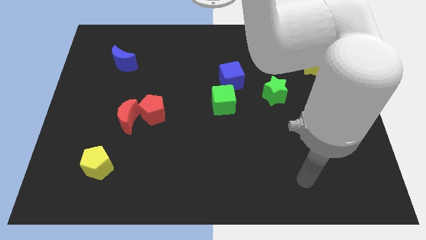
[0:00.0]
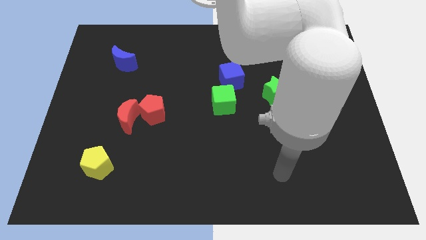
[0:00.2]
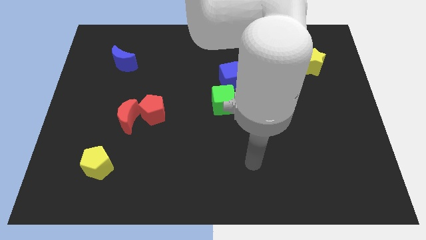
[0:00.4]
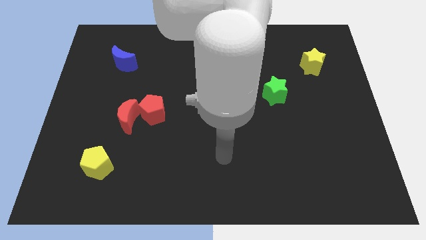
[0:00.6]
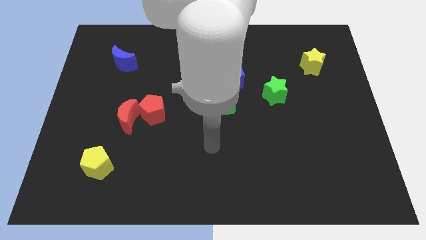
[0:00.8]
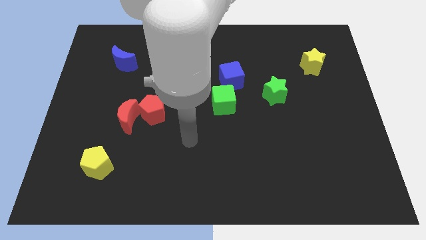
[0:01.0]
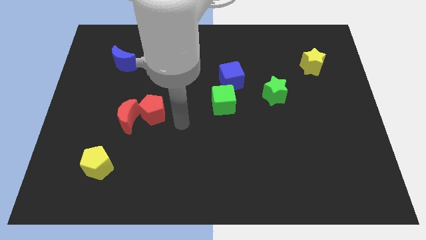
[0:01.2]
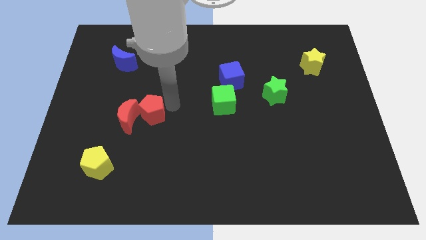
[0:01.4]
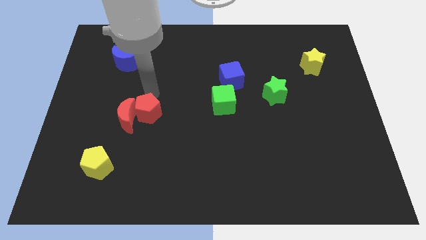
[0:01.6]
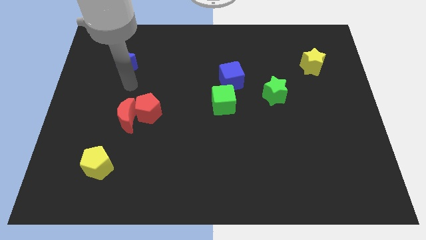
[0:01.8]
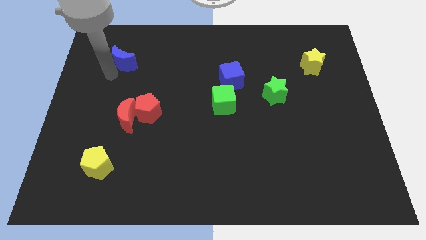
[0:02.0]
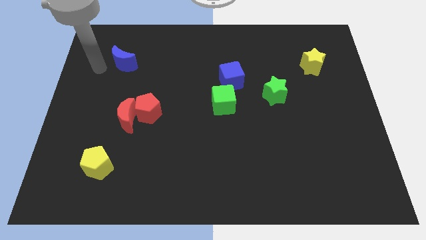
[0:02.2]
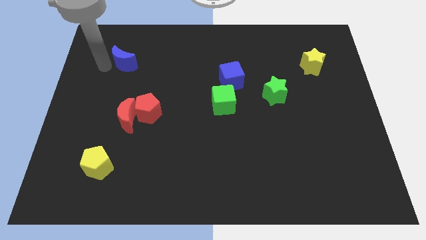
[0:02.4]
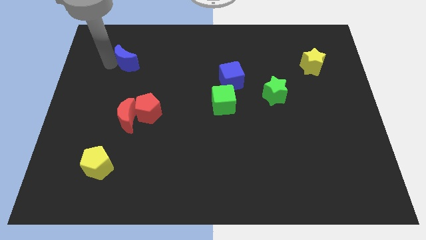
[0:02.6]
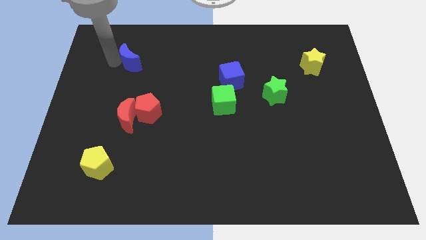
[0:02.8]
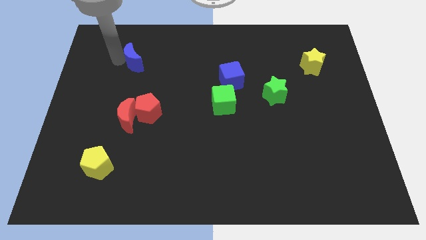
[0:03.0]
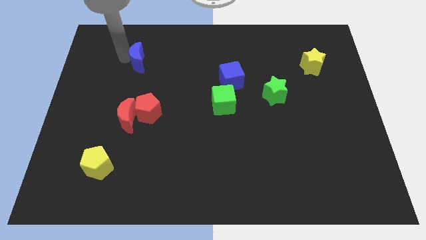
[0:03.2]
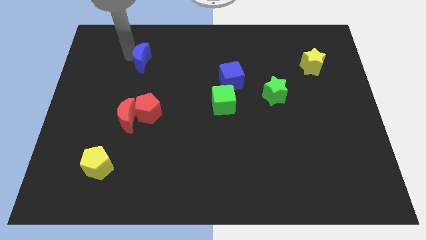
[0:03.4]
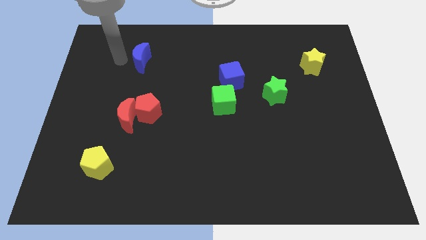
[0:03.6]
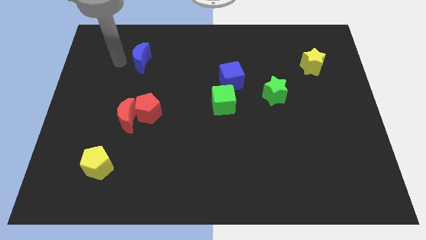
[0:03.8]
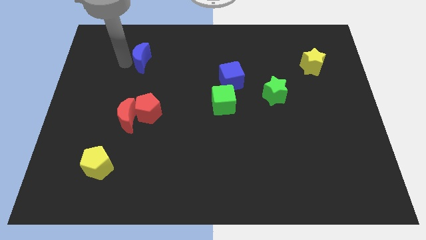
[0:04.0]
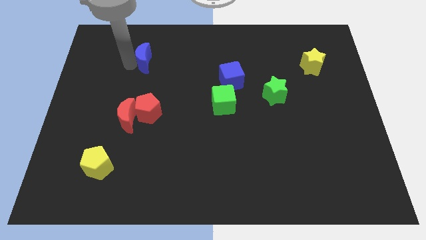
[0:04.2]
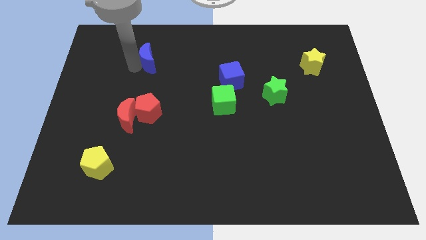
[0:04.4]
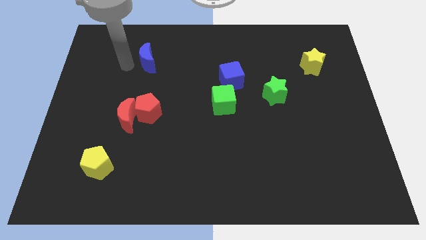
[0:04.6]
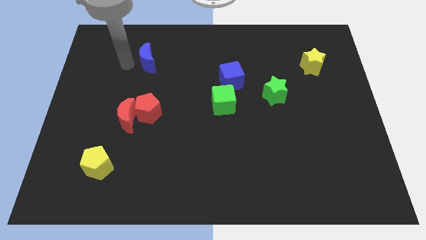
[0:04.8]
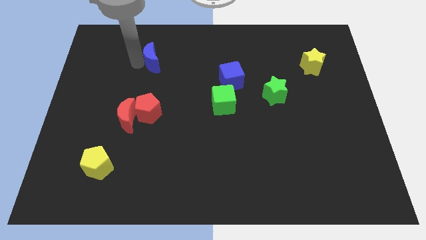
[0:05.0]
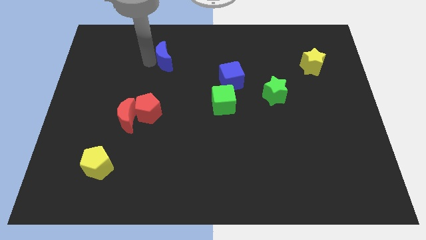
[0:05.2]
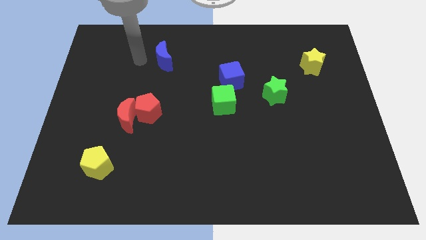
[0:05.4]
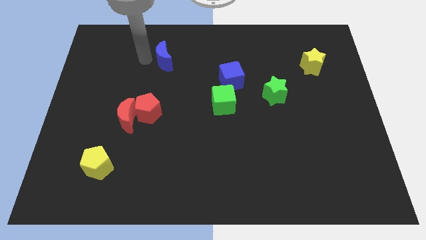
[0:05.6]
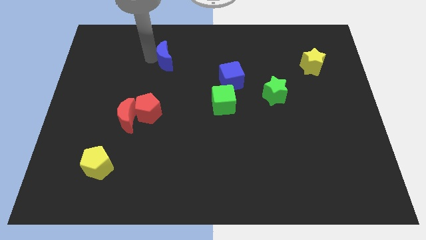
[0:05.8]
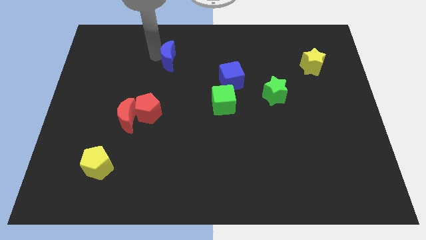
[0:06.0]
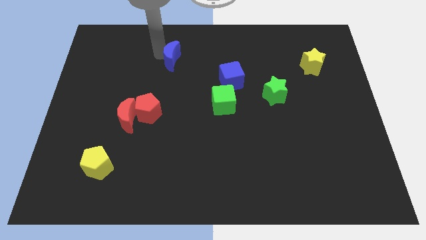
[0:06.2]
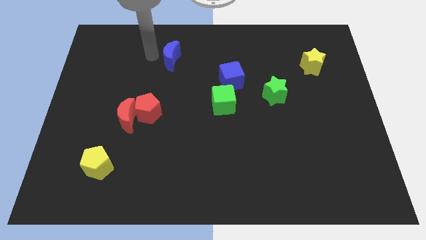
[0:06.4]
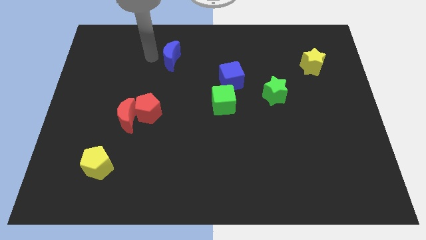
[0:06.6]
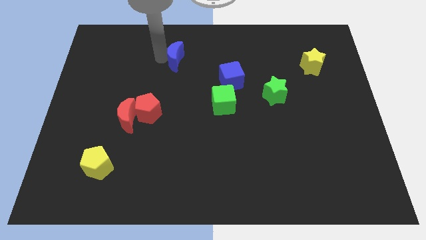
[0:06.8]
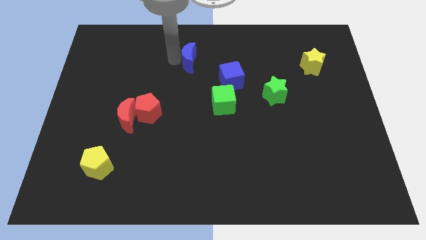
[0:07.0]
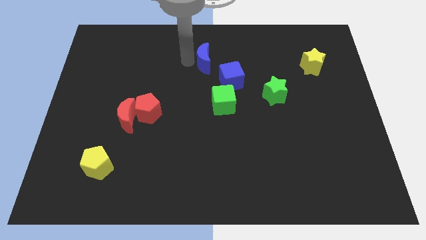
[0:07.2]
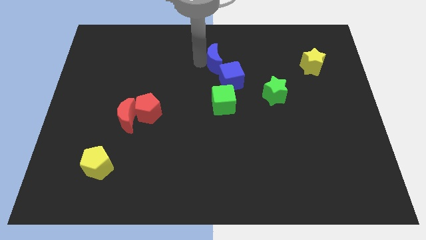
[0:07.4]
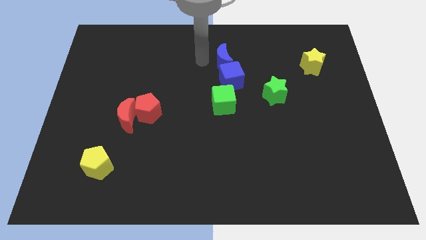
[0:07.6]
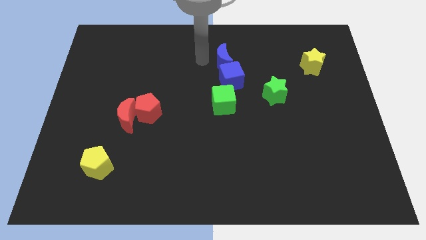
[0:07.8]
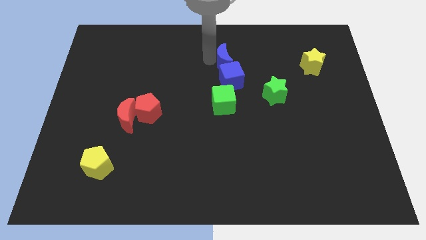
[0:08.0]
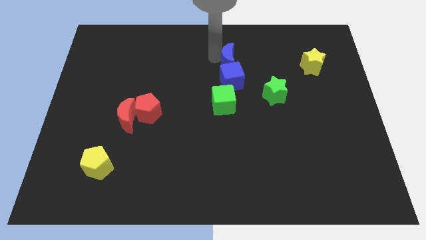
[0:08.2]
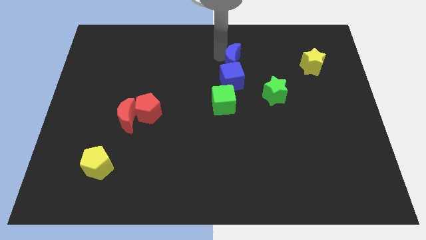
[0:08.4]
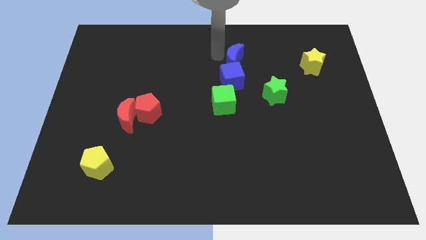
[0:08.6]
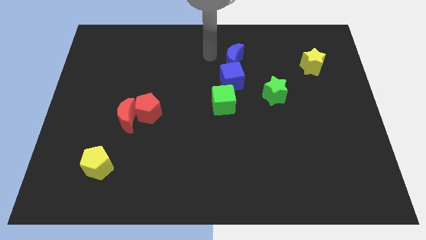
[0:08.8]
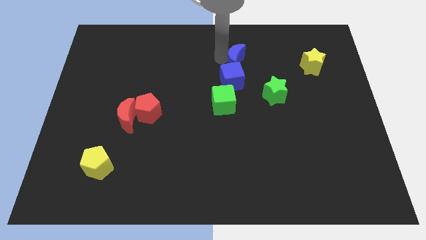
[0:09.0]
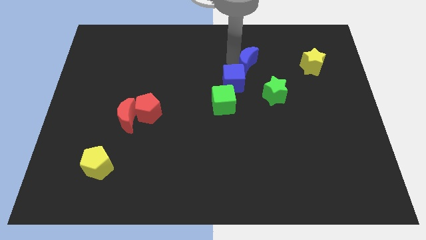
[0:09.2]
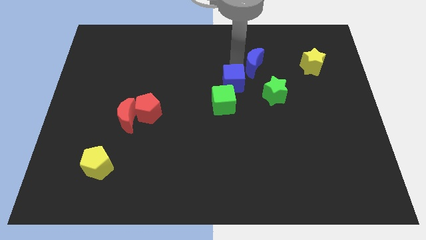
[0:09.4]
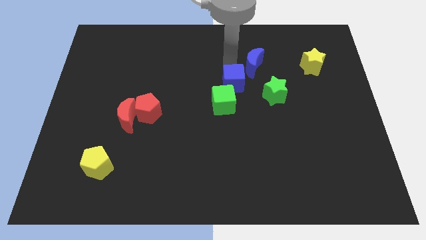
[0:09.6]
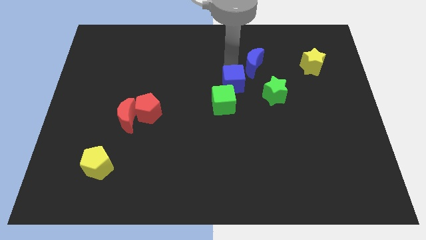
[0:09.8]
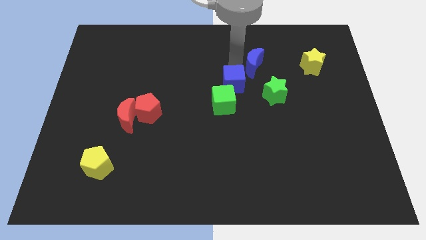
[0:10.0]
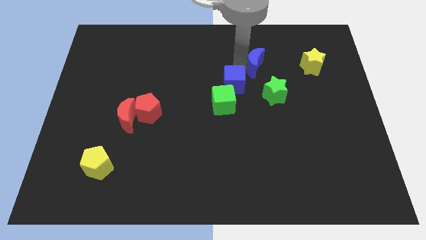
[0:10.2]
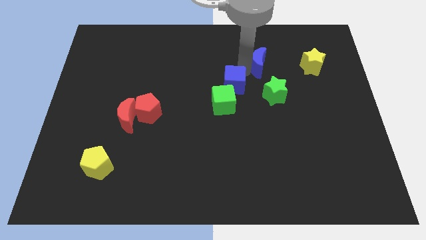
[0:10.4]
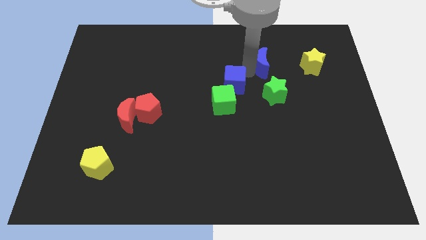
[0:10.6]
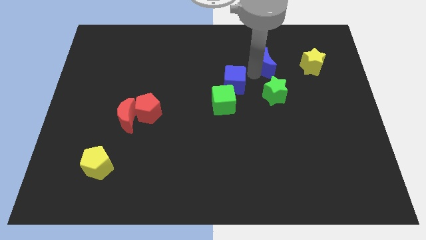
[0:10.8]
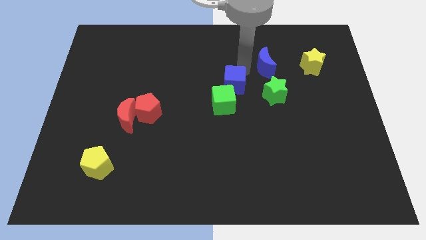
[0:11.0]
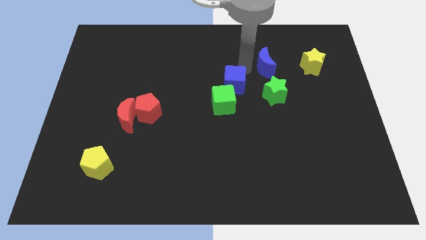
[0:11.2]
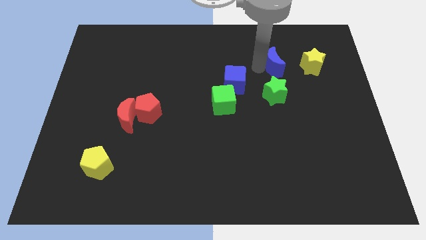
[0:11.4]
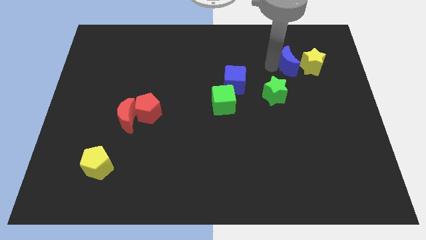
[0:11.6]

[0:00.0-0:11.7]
move the blue moon next to the yellow star

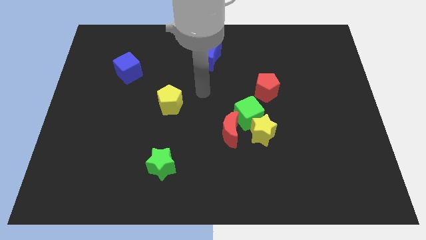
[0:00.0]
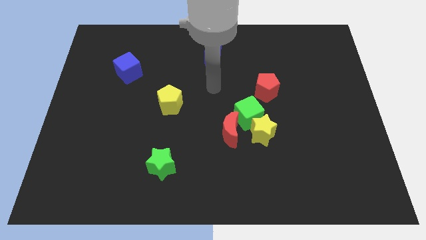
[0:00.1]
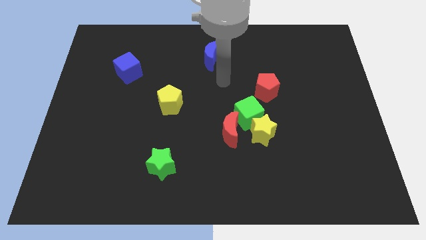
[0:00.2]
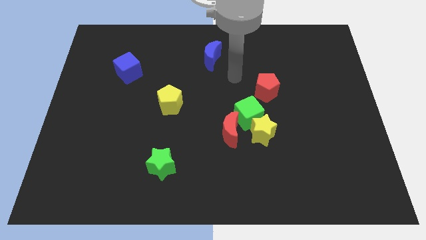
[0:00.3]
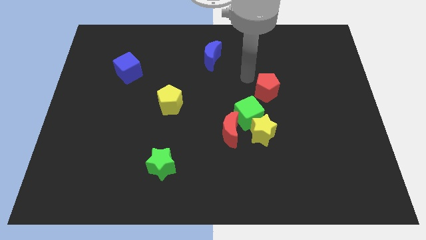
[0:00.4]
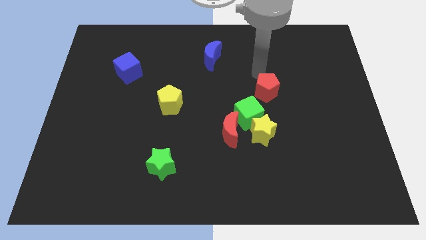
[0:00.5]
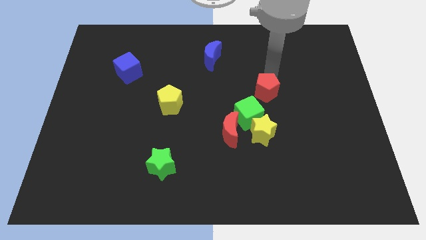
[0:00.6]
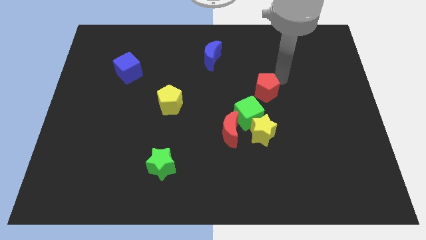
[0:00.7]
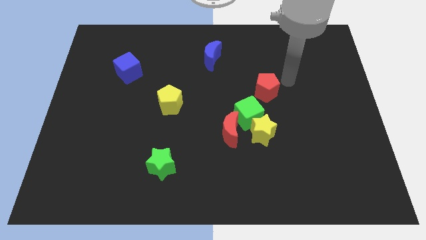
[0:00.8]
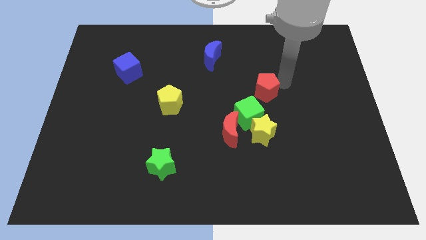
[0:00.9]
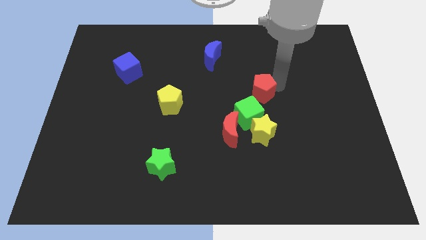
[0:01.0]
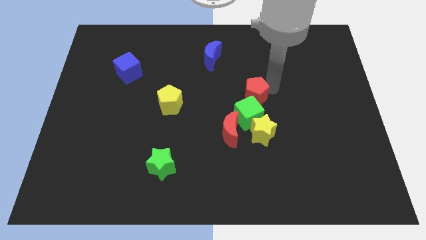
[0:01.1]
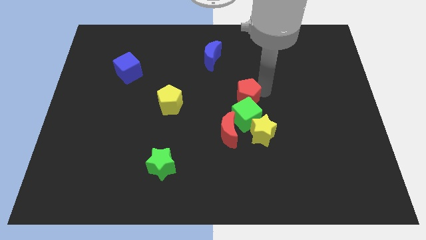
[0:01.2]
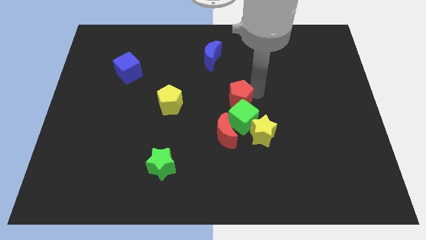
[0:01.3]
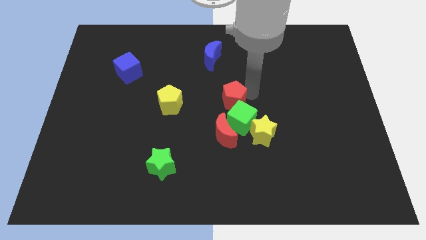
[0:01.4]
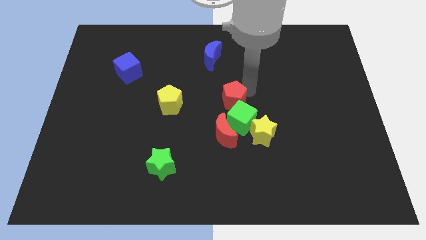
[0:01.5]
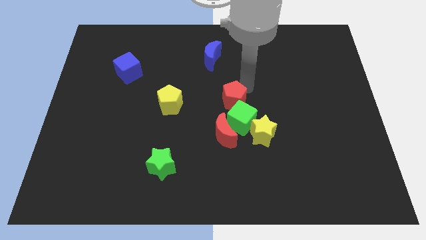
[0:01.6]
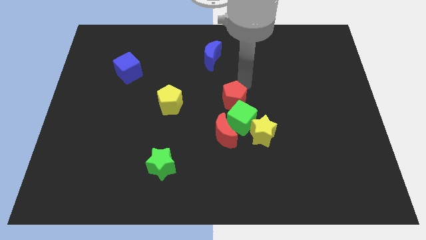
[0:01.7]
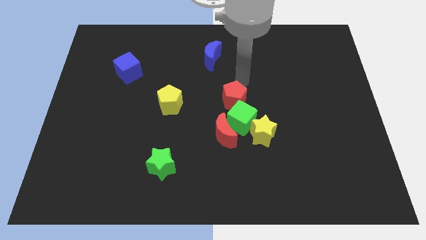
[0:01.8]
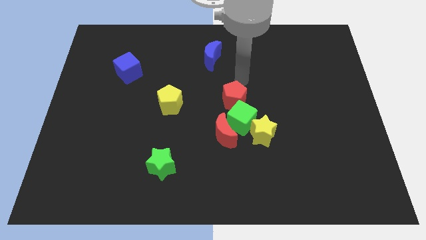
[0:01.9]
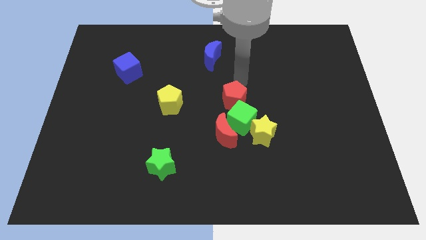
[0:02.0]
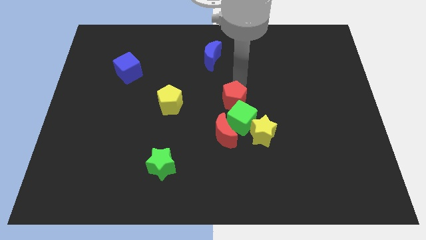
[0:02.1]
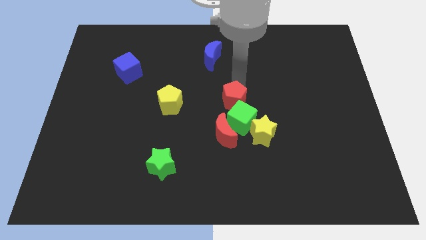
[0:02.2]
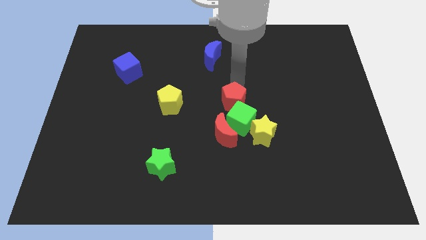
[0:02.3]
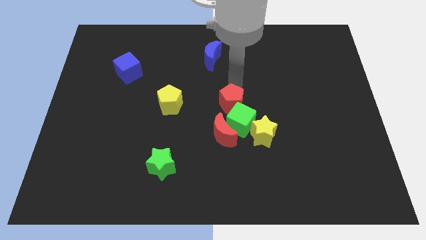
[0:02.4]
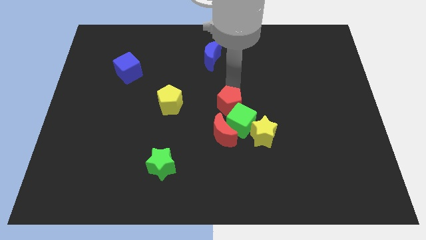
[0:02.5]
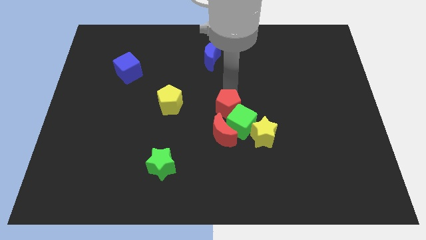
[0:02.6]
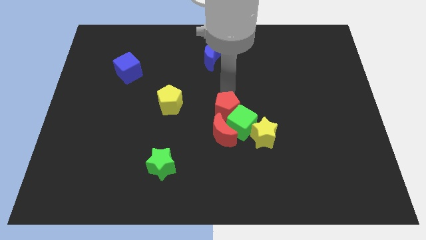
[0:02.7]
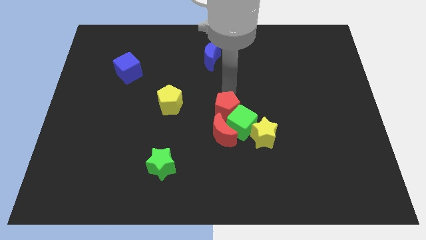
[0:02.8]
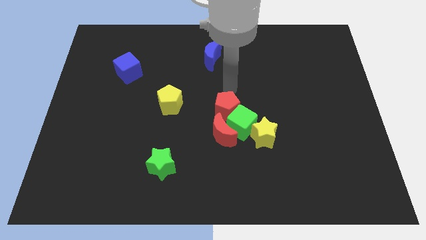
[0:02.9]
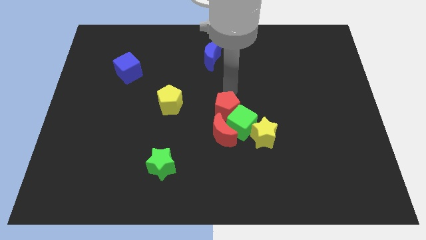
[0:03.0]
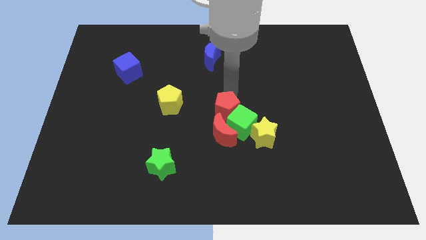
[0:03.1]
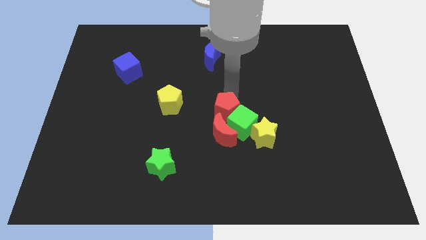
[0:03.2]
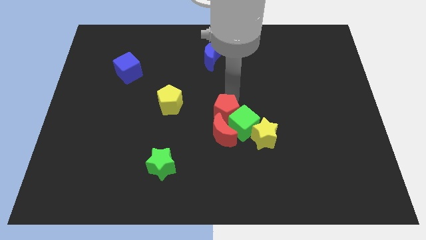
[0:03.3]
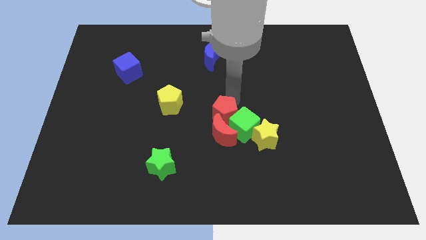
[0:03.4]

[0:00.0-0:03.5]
slide the red pentagon to the red moon
